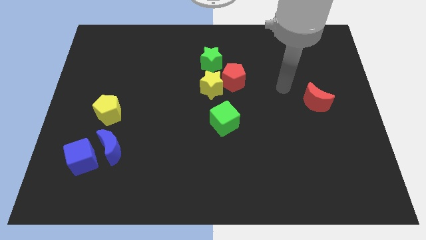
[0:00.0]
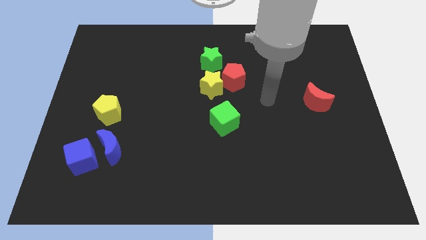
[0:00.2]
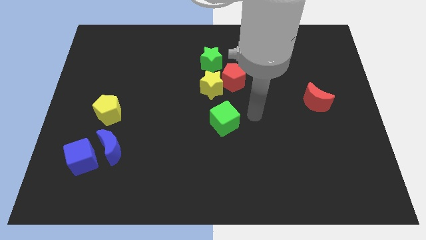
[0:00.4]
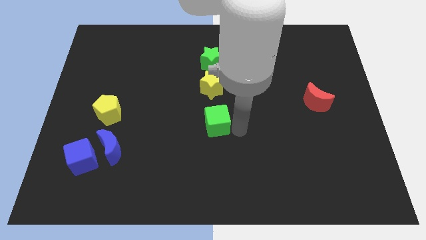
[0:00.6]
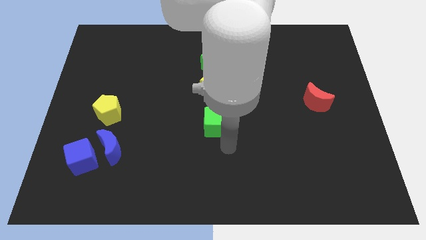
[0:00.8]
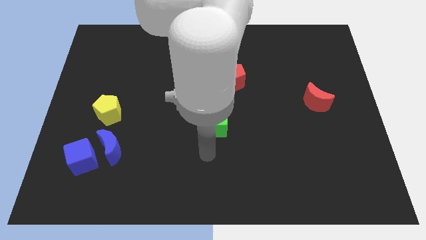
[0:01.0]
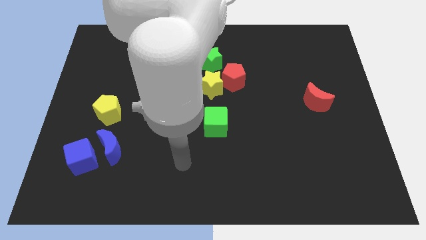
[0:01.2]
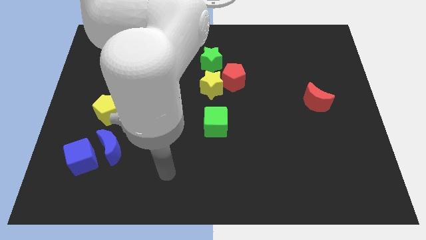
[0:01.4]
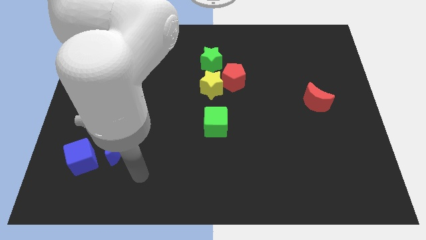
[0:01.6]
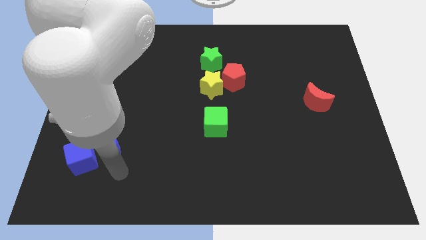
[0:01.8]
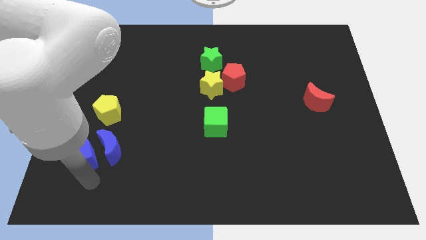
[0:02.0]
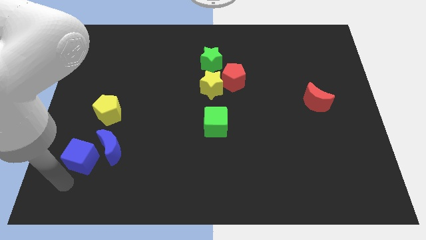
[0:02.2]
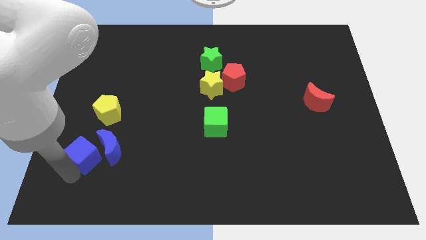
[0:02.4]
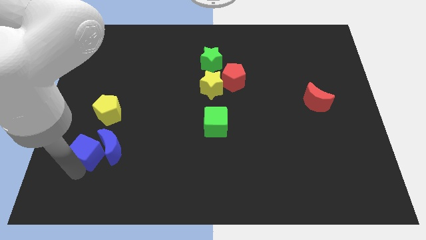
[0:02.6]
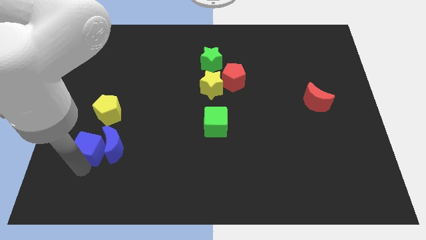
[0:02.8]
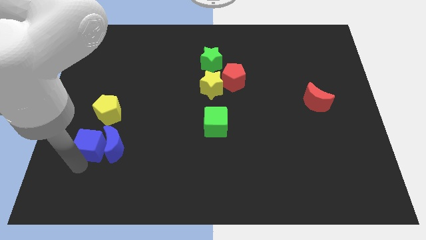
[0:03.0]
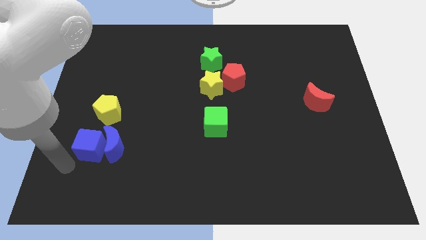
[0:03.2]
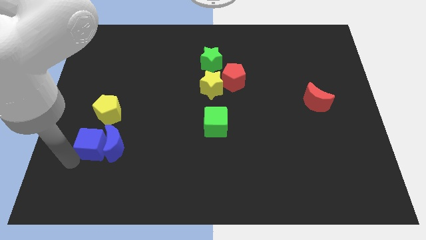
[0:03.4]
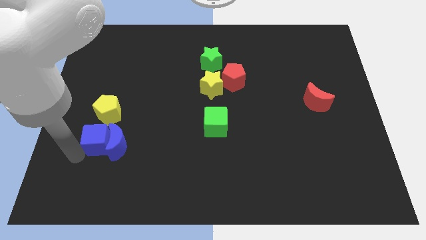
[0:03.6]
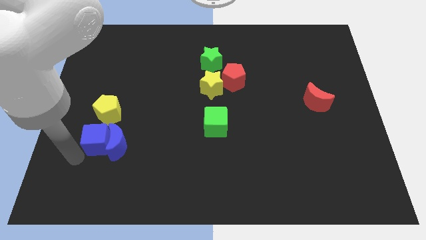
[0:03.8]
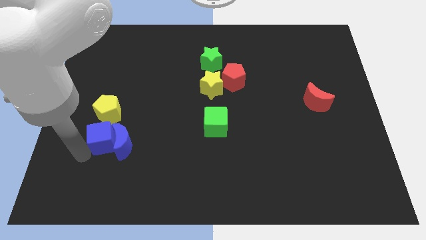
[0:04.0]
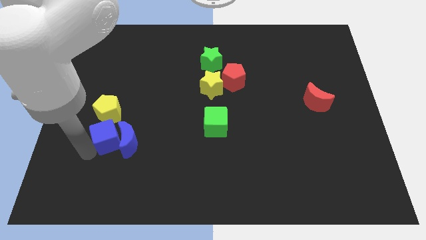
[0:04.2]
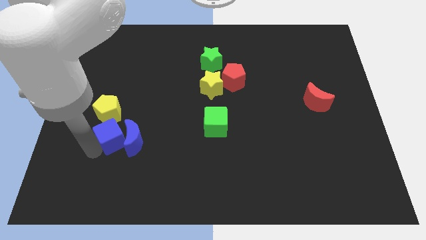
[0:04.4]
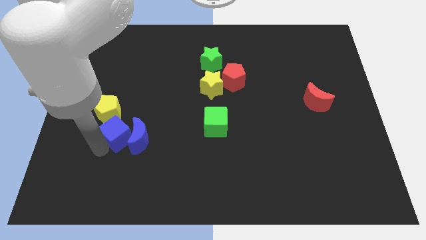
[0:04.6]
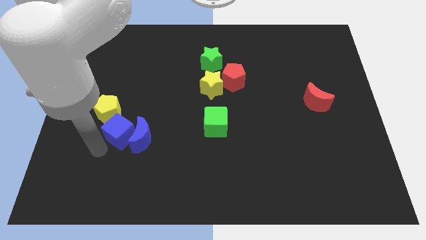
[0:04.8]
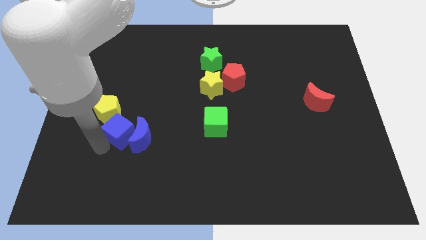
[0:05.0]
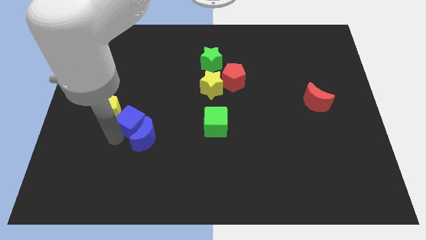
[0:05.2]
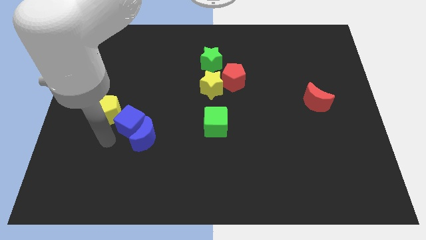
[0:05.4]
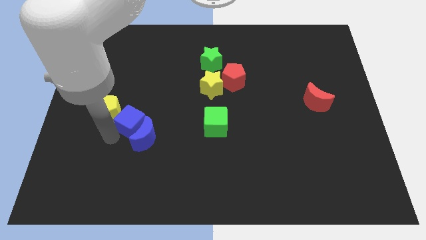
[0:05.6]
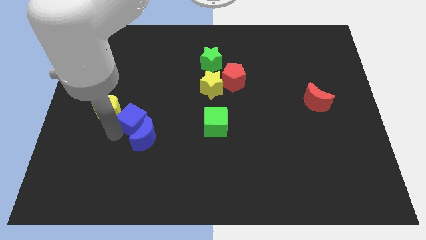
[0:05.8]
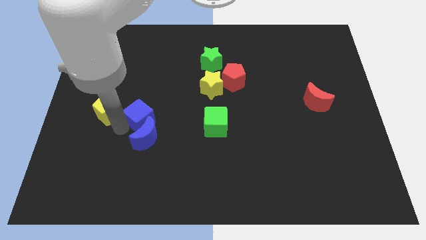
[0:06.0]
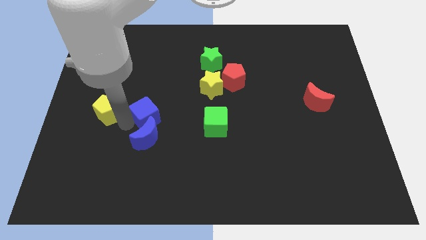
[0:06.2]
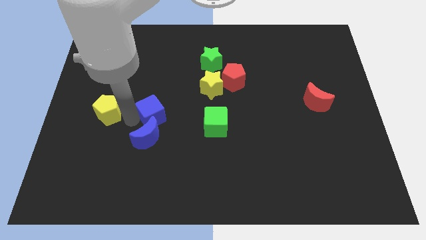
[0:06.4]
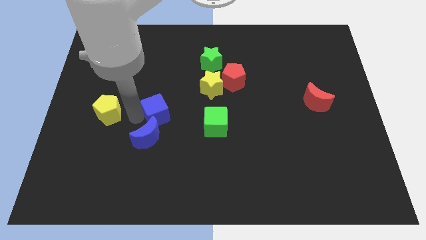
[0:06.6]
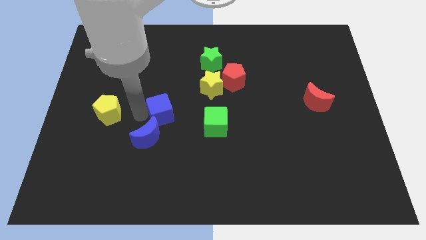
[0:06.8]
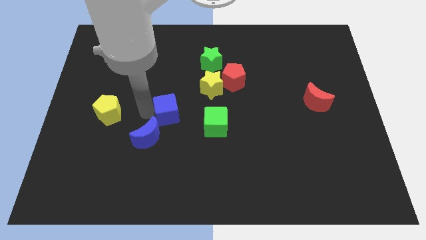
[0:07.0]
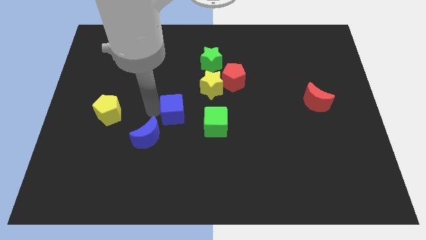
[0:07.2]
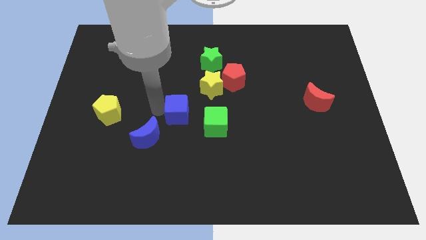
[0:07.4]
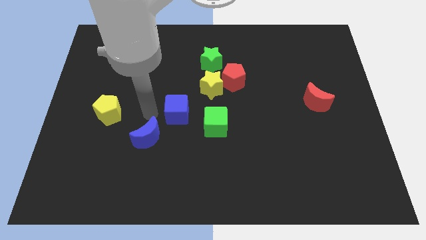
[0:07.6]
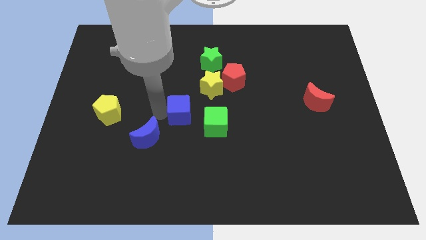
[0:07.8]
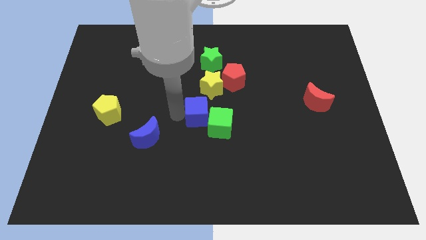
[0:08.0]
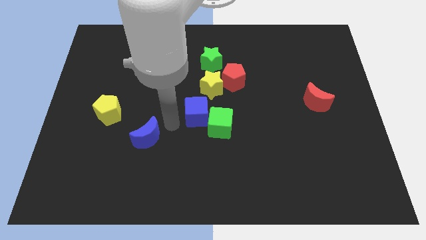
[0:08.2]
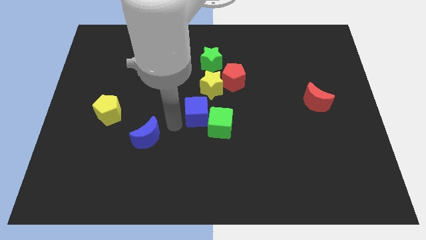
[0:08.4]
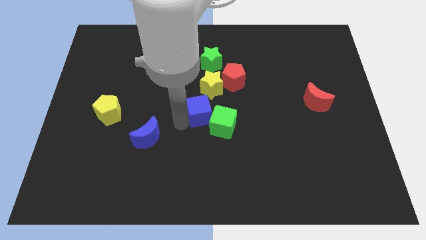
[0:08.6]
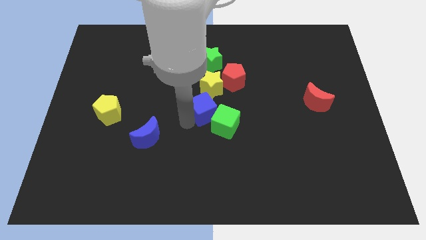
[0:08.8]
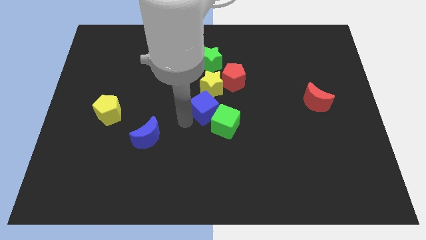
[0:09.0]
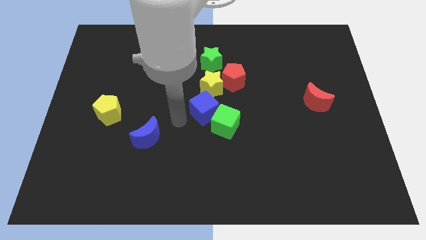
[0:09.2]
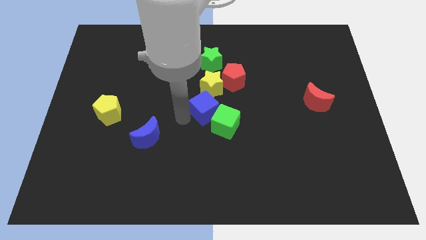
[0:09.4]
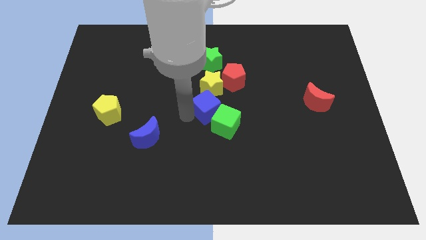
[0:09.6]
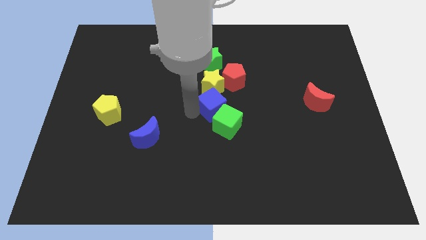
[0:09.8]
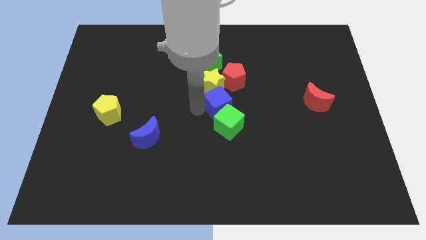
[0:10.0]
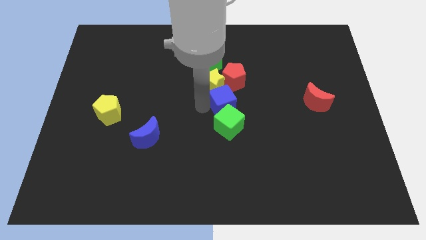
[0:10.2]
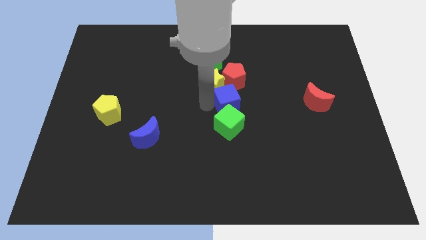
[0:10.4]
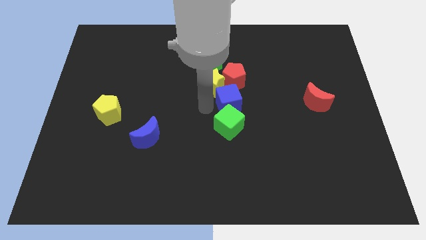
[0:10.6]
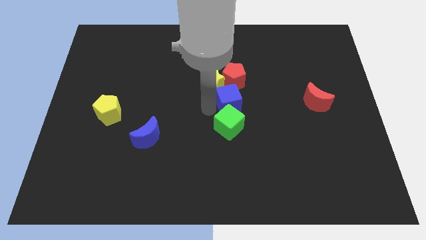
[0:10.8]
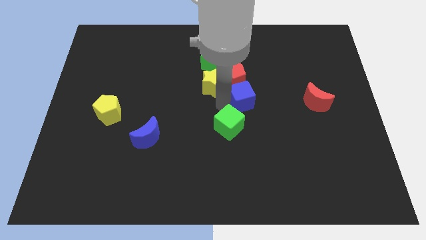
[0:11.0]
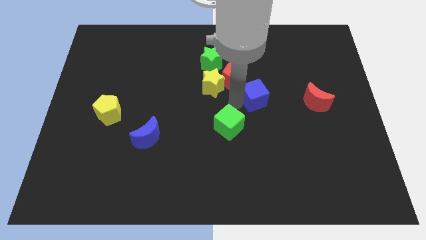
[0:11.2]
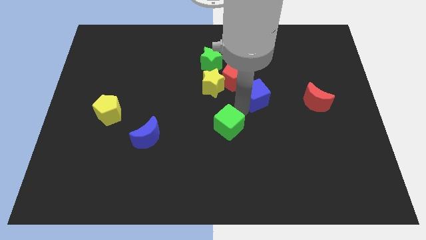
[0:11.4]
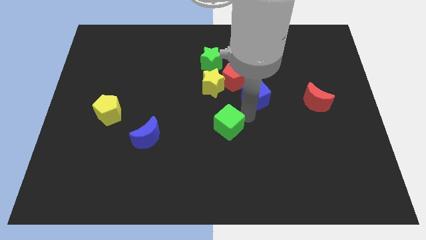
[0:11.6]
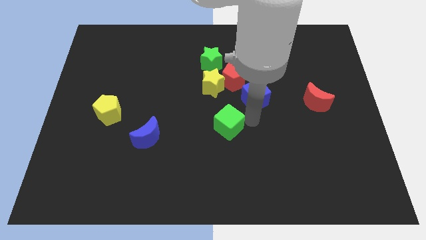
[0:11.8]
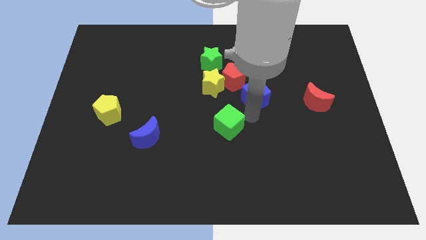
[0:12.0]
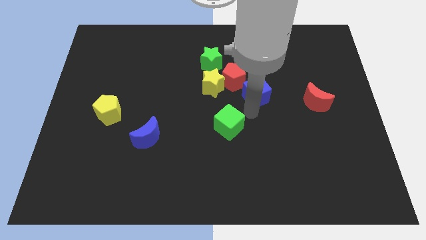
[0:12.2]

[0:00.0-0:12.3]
move the blue cube to the right side of the red pentagon
